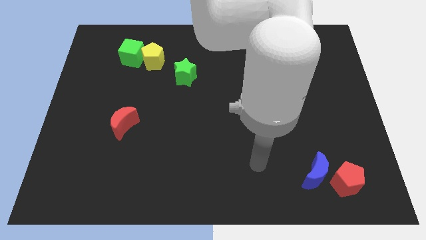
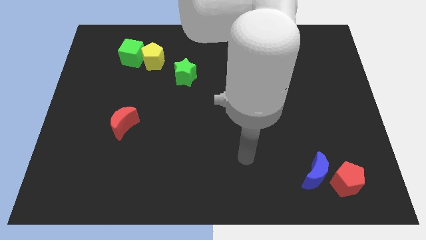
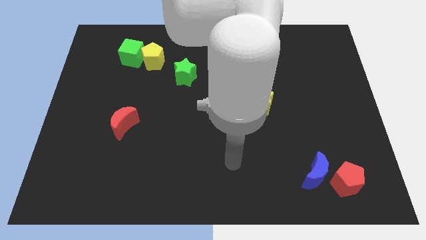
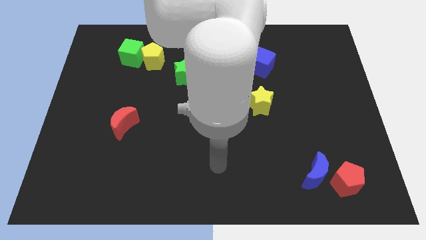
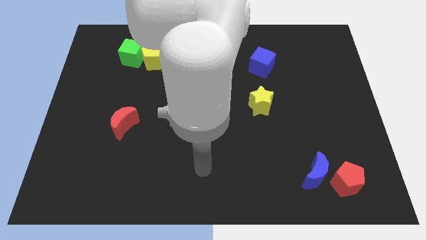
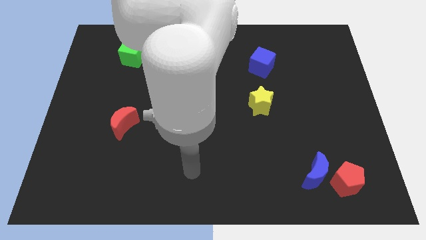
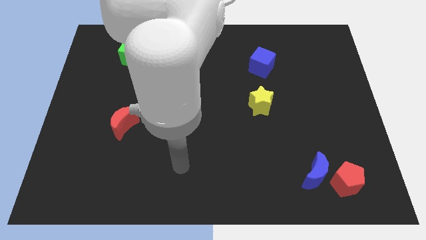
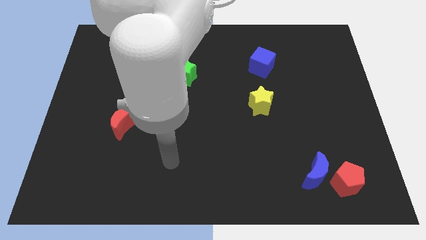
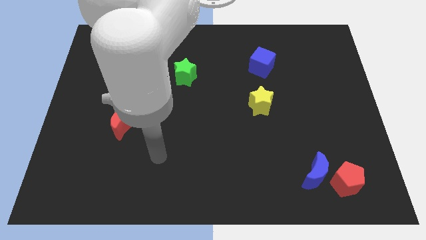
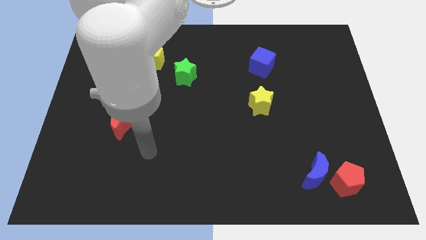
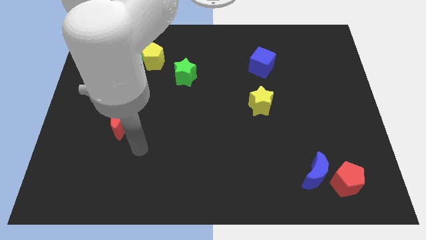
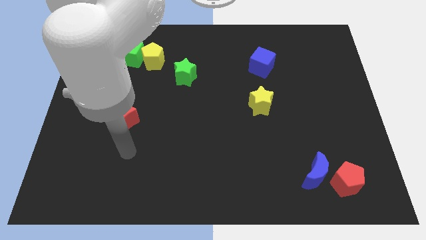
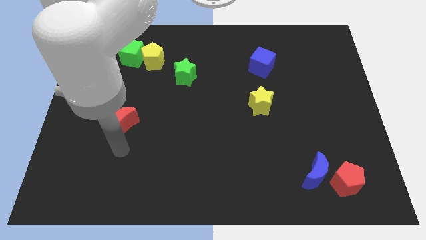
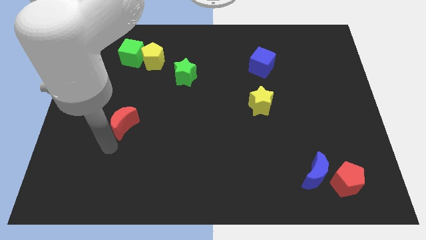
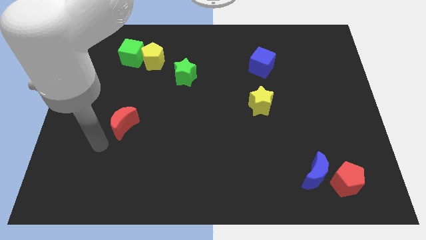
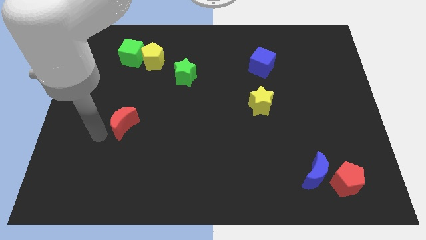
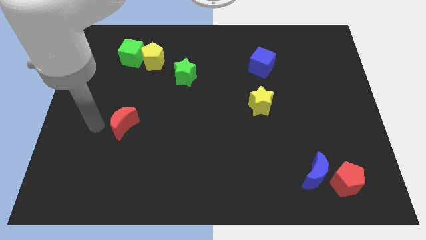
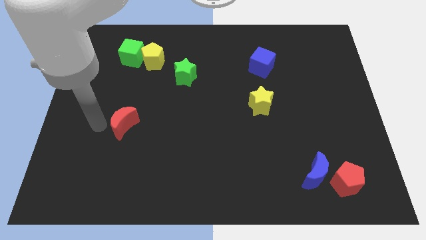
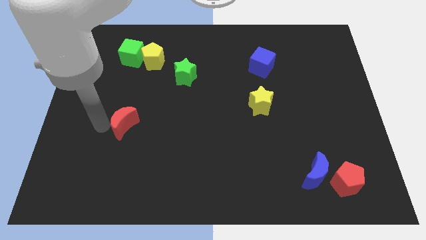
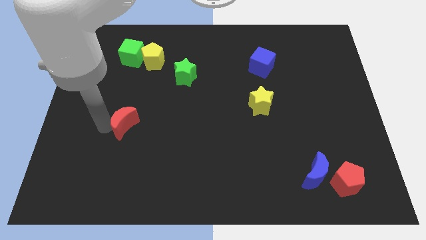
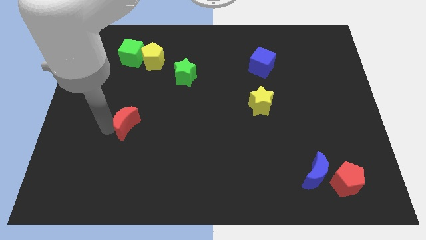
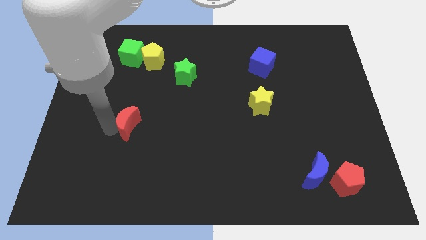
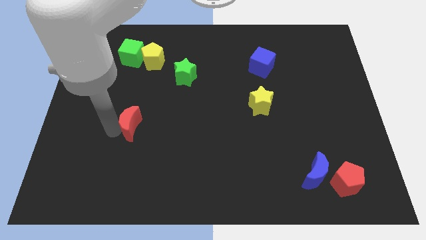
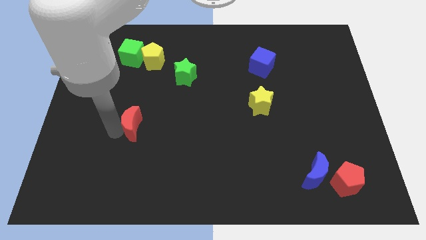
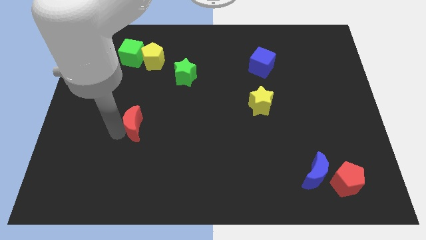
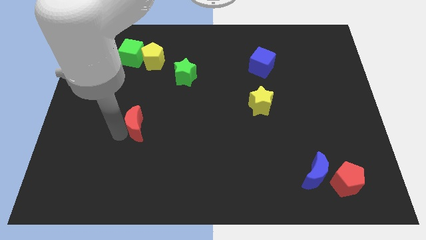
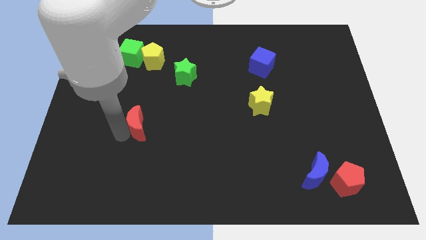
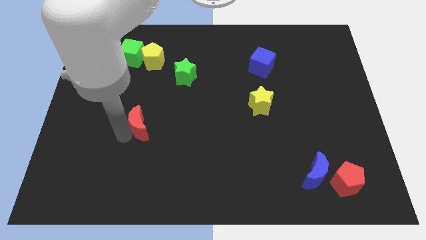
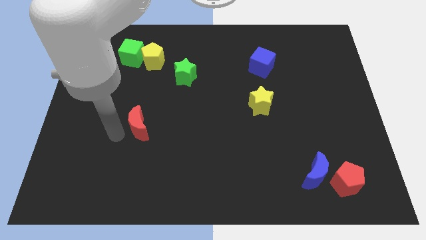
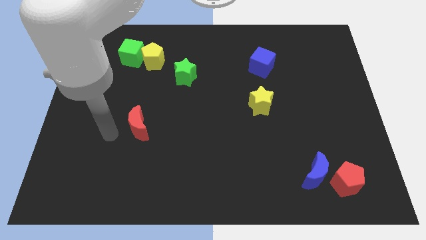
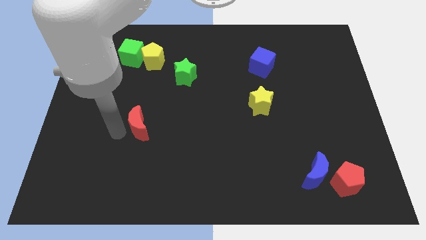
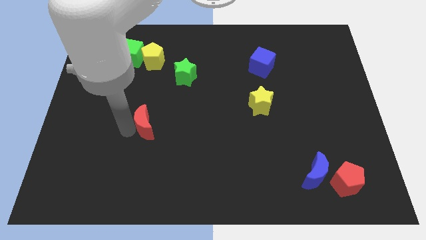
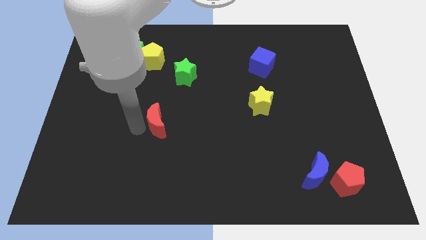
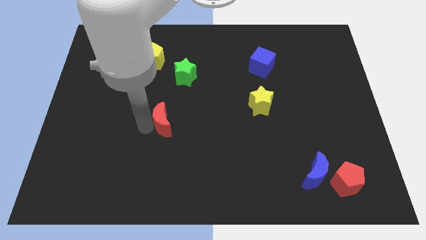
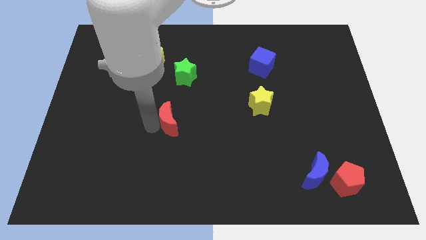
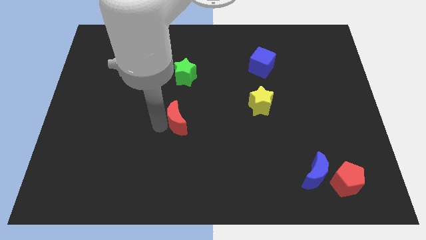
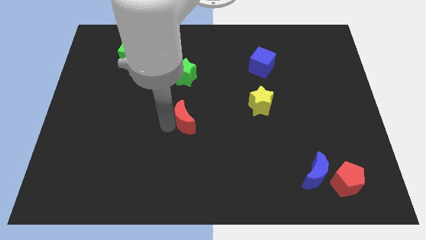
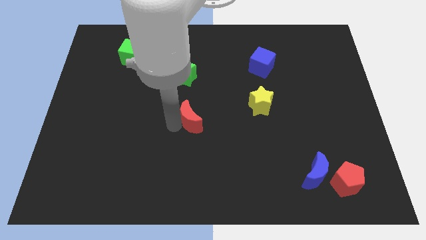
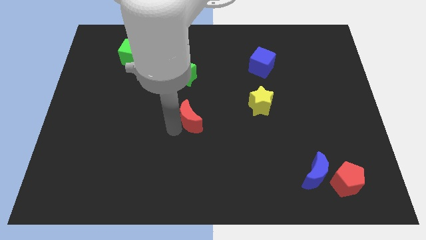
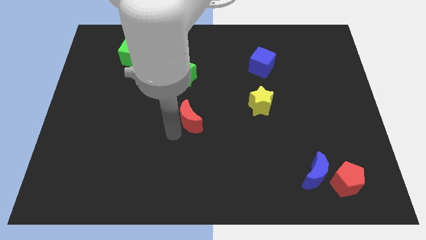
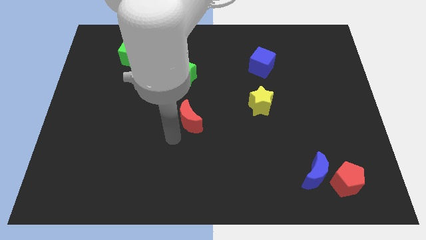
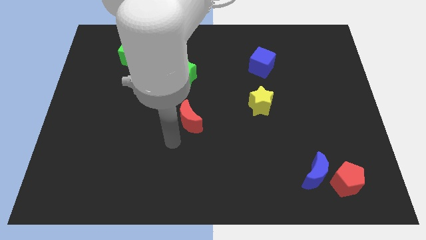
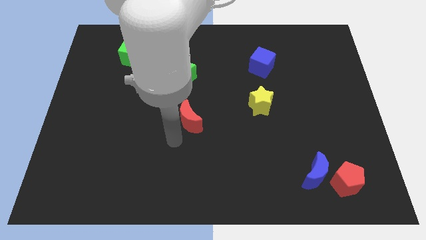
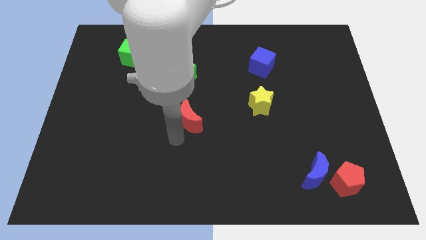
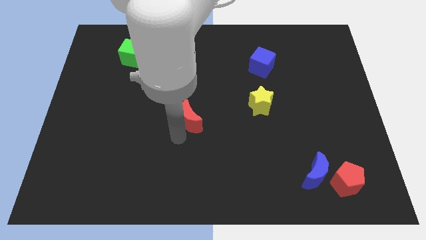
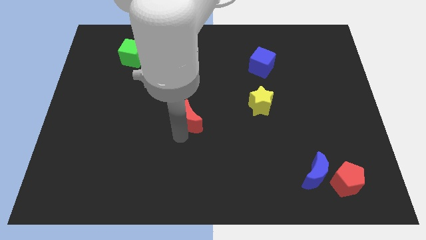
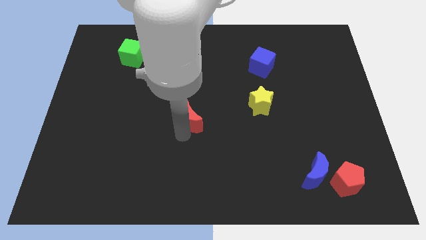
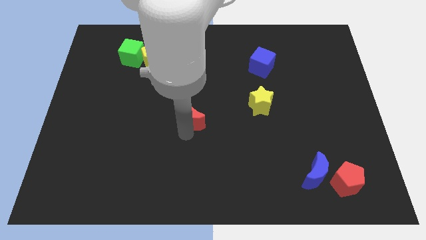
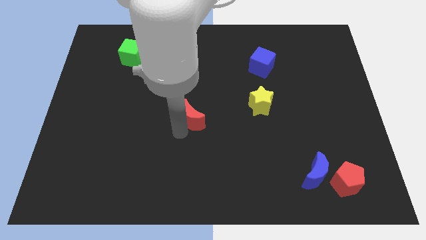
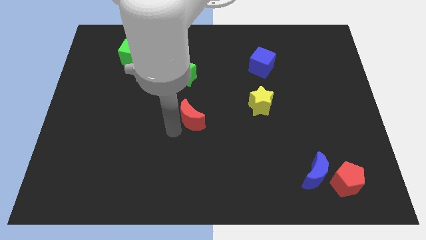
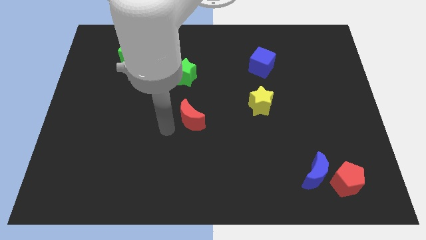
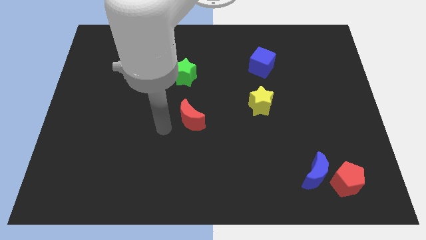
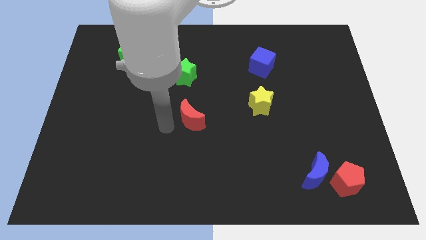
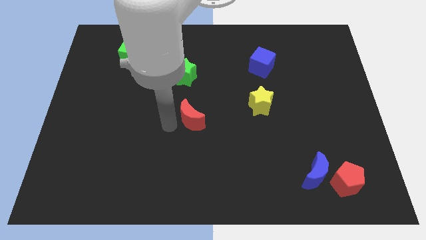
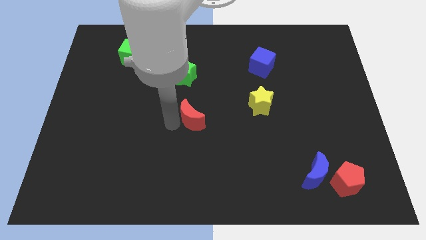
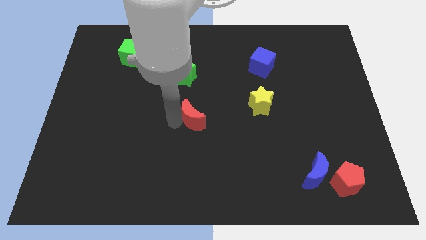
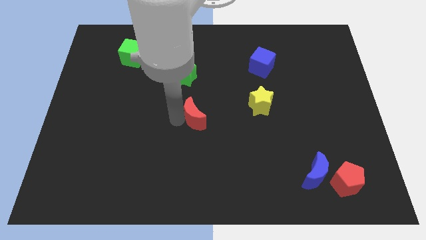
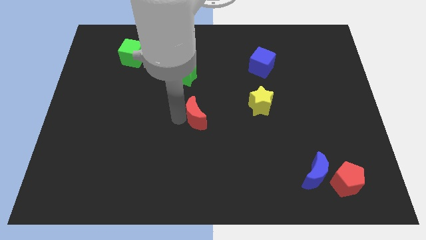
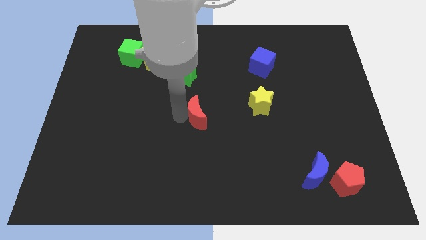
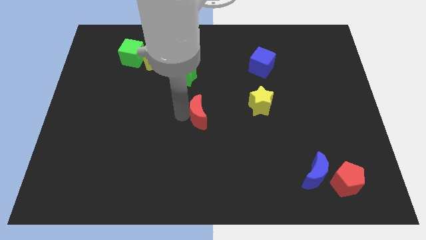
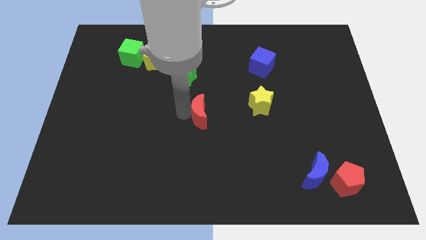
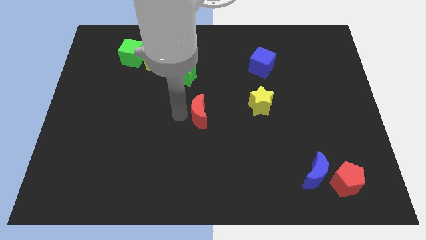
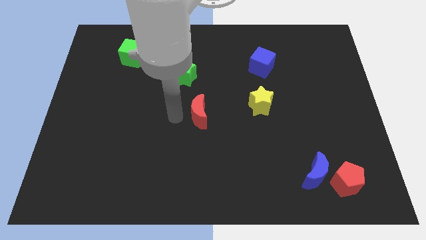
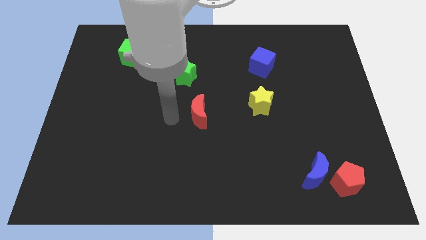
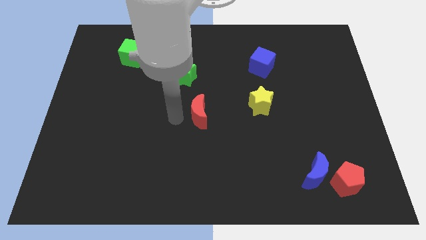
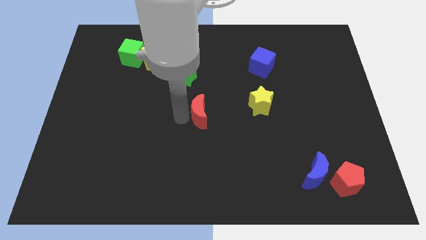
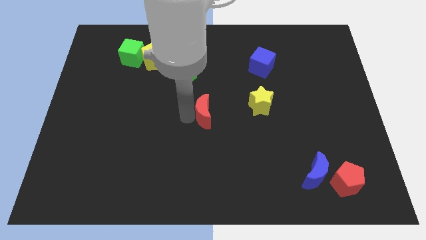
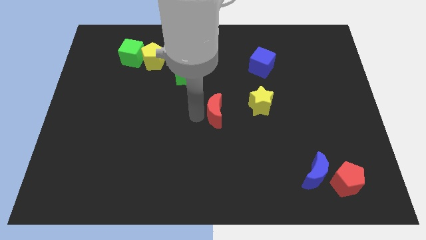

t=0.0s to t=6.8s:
push the red moon to the right

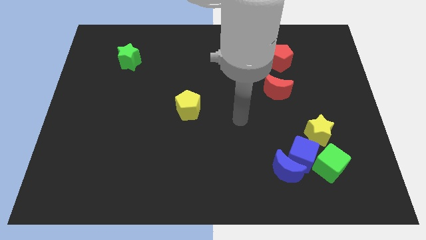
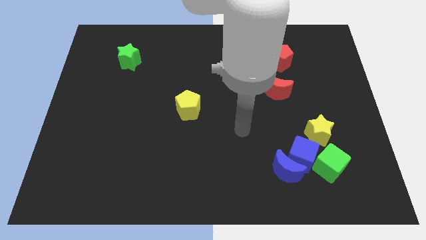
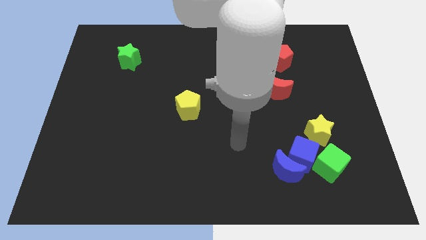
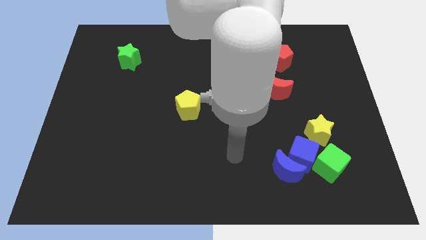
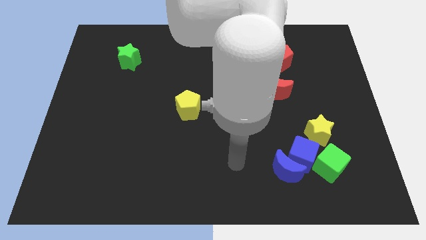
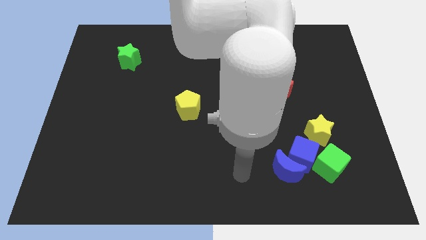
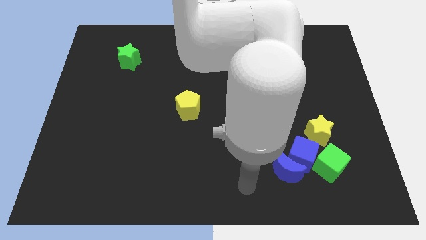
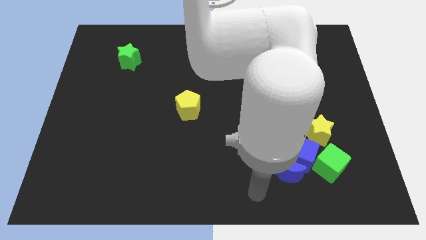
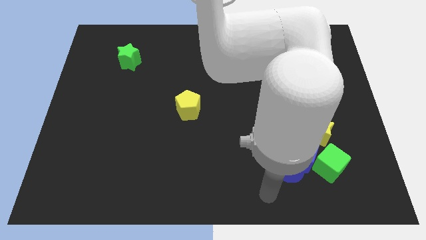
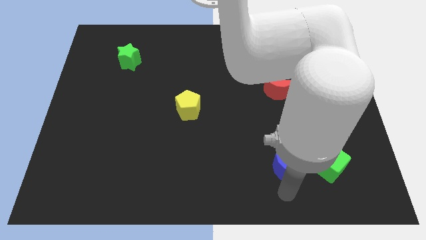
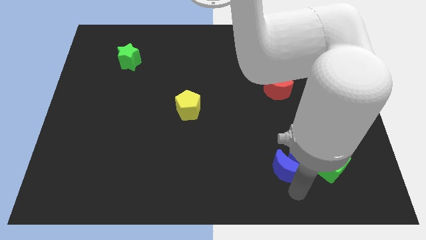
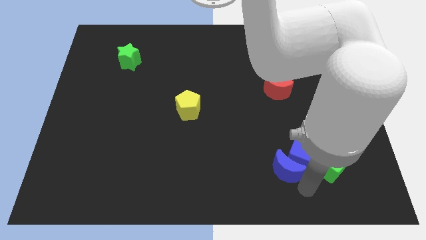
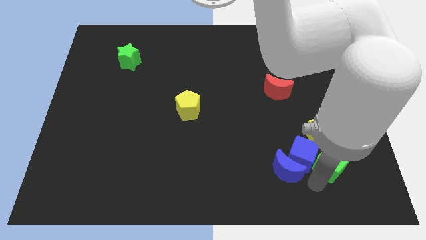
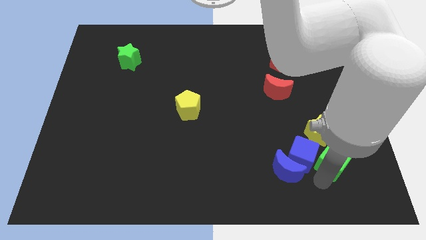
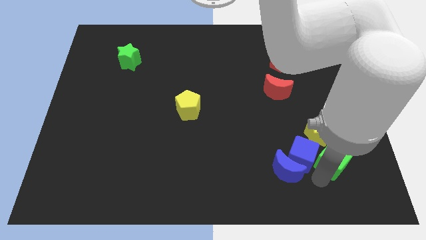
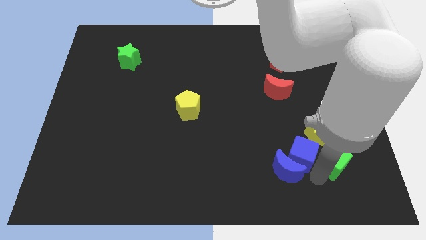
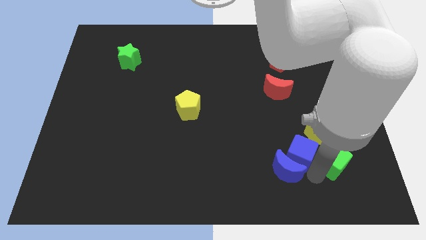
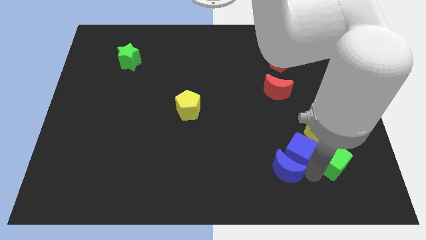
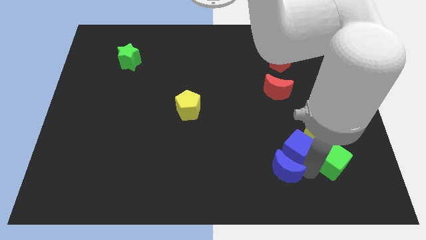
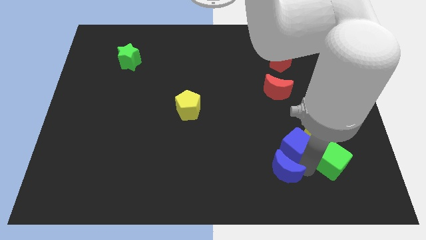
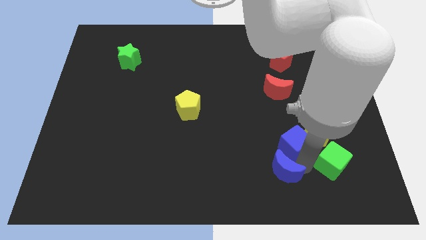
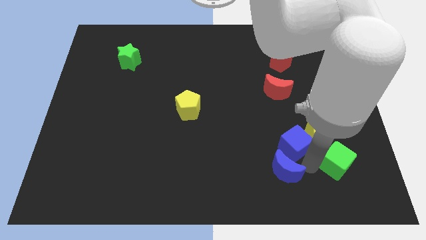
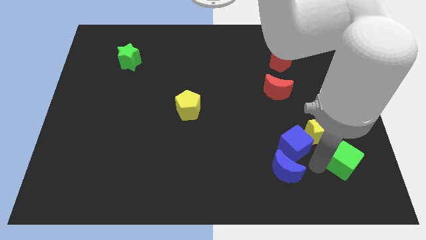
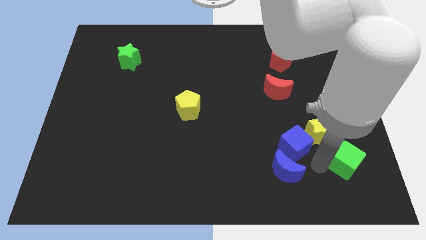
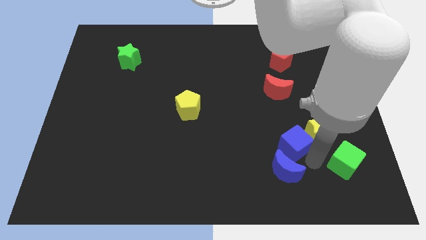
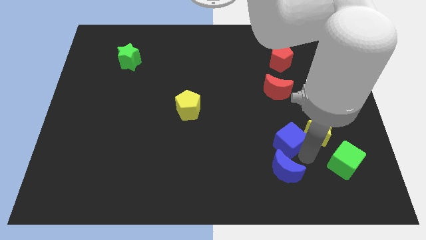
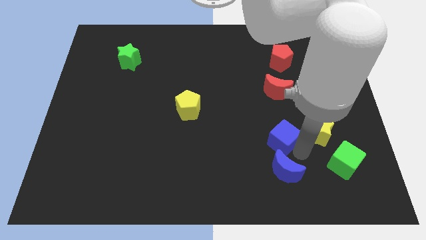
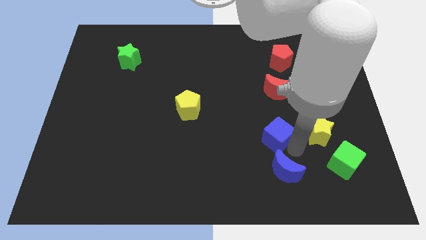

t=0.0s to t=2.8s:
slide the blue cube slightly diagonally up and to the left
